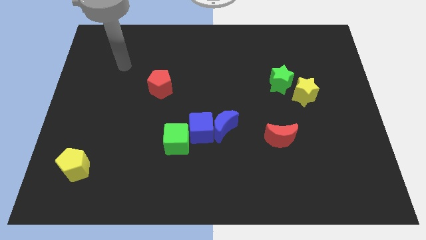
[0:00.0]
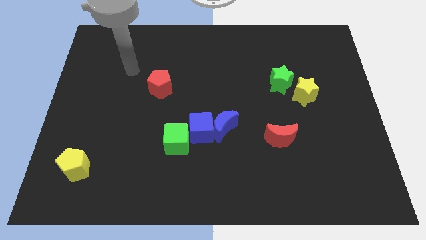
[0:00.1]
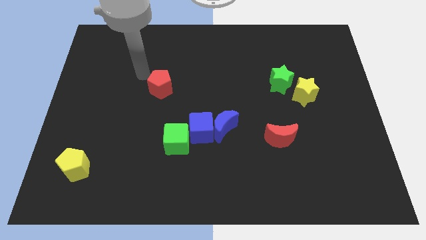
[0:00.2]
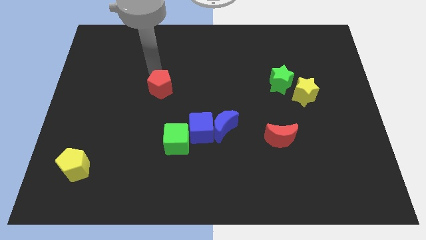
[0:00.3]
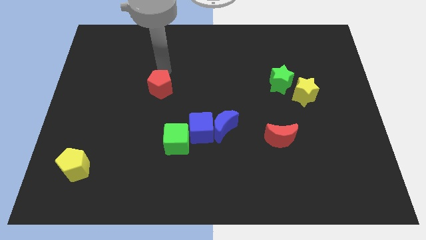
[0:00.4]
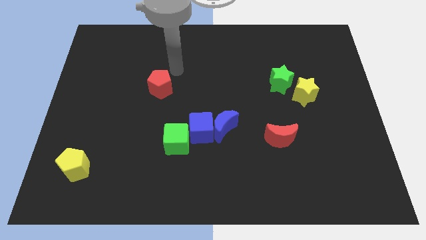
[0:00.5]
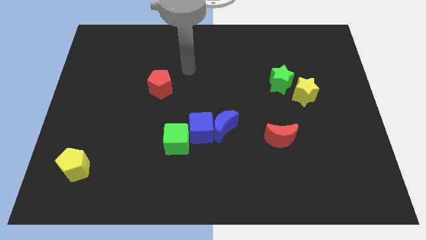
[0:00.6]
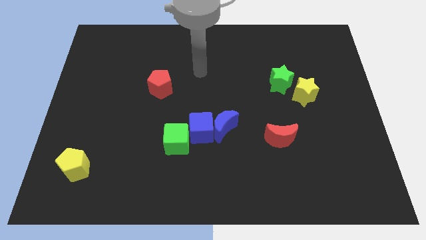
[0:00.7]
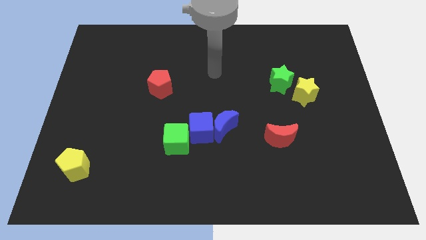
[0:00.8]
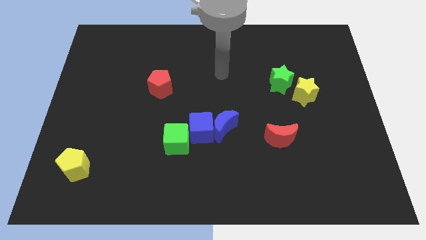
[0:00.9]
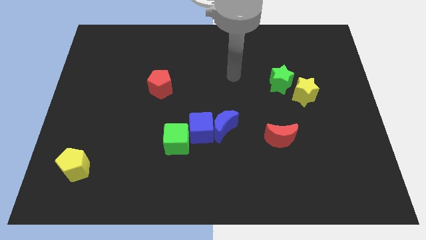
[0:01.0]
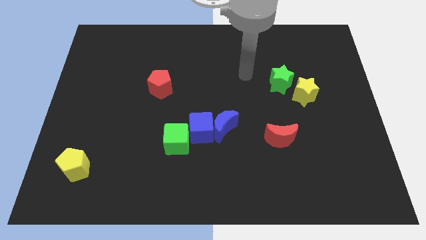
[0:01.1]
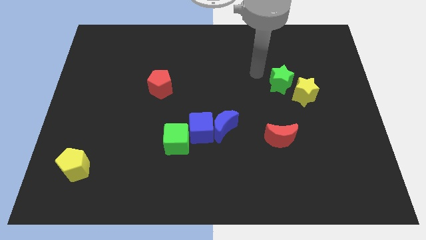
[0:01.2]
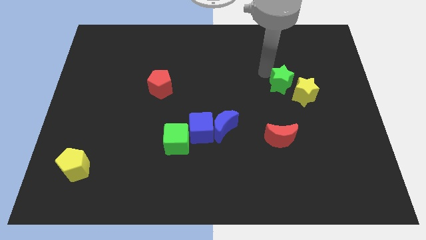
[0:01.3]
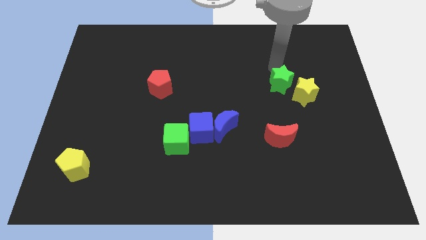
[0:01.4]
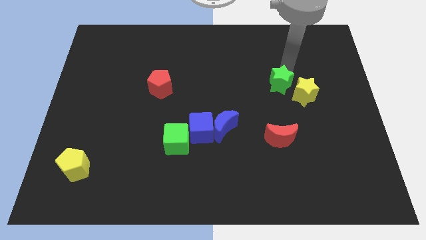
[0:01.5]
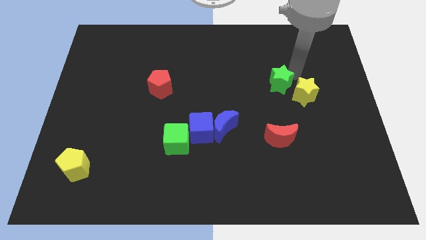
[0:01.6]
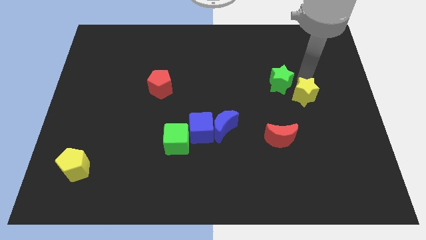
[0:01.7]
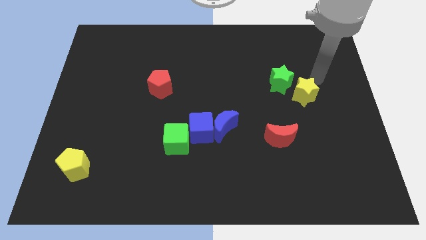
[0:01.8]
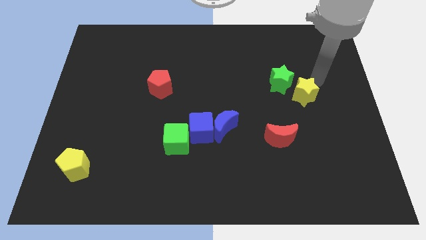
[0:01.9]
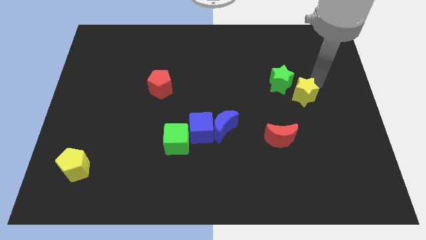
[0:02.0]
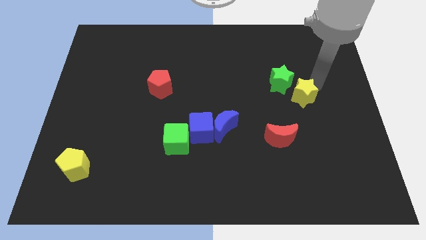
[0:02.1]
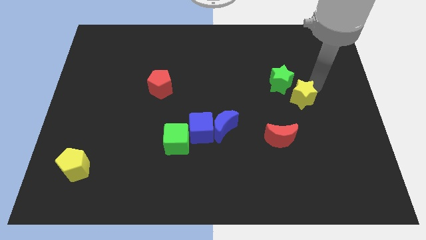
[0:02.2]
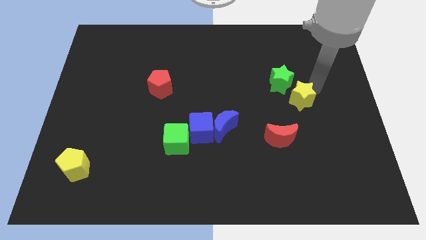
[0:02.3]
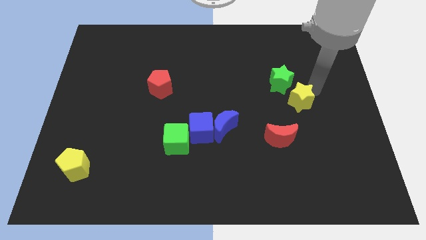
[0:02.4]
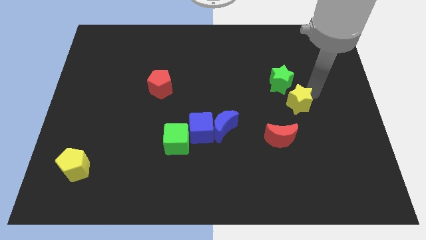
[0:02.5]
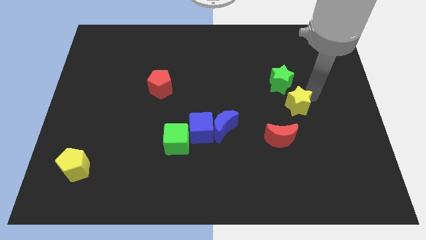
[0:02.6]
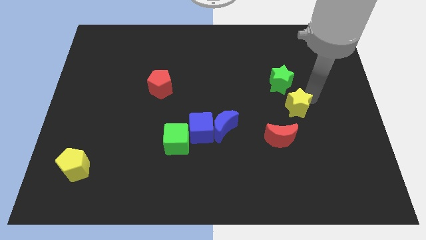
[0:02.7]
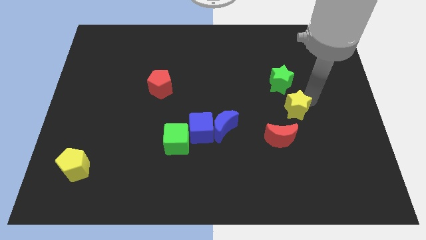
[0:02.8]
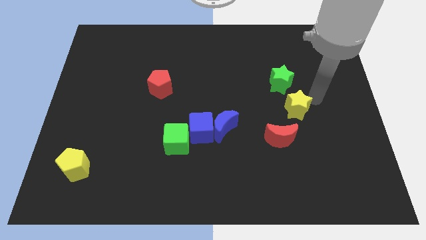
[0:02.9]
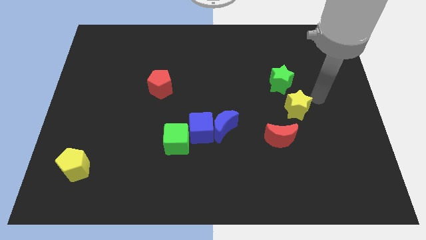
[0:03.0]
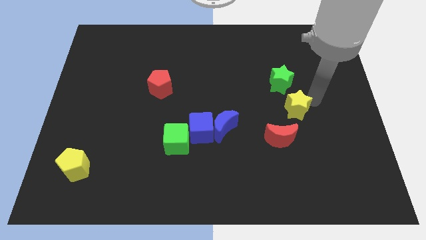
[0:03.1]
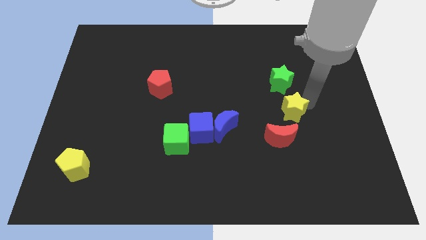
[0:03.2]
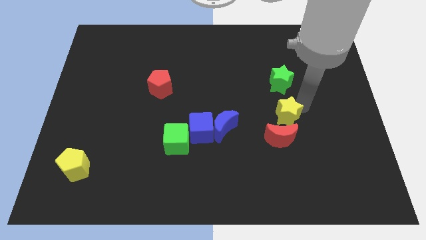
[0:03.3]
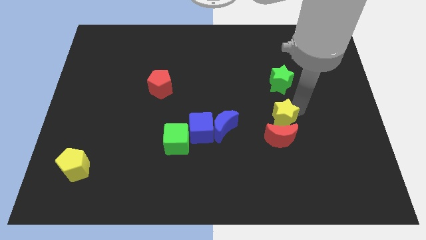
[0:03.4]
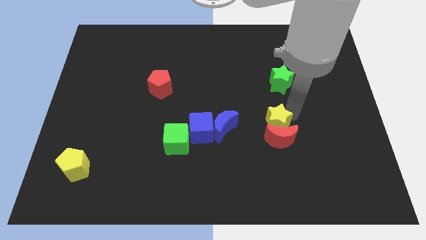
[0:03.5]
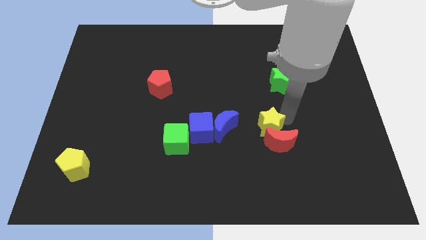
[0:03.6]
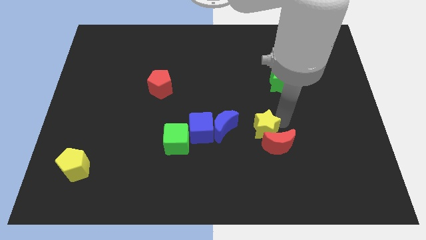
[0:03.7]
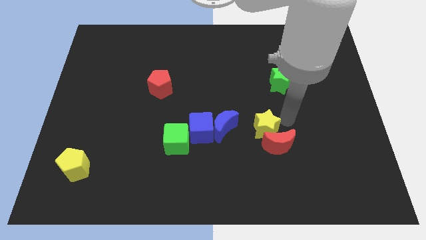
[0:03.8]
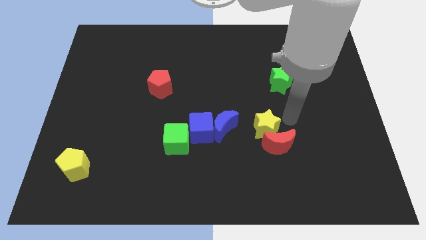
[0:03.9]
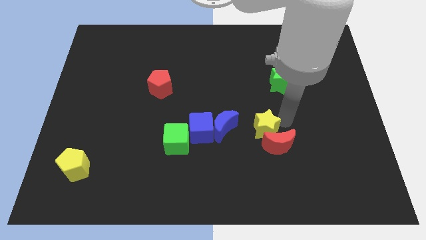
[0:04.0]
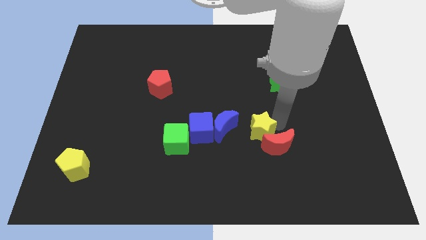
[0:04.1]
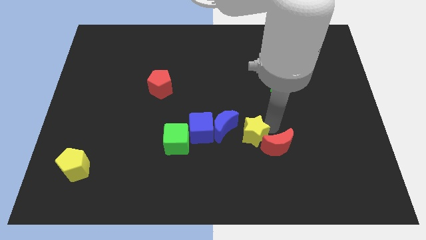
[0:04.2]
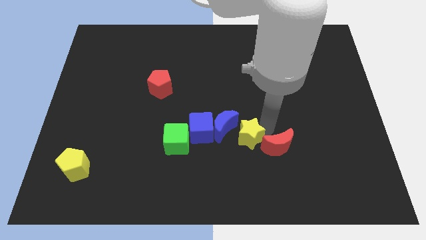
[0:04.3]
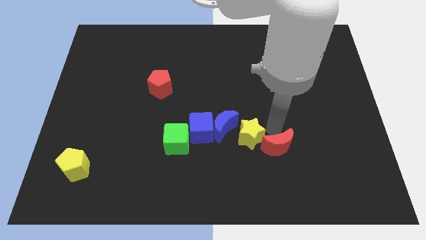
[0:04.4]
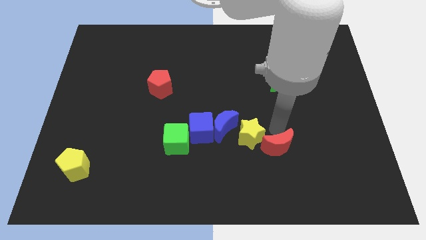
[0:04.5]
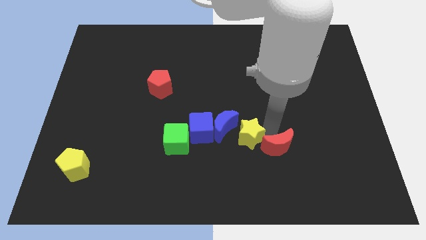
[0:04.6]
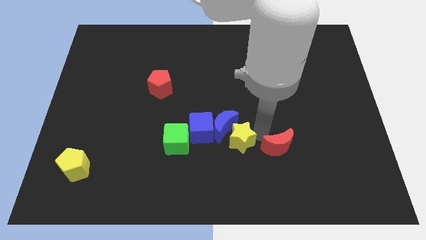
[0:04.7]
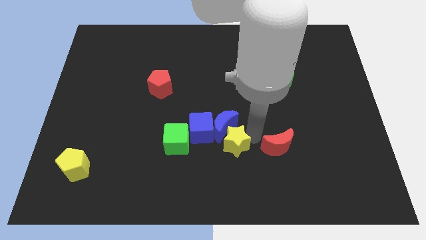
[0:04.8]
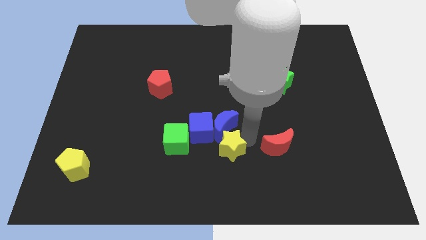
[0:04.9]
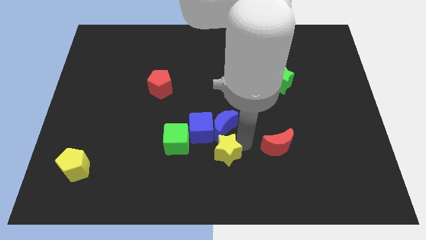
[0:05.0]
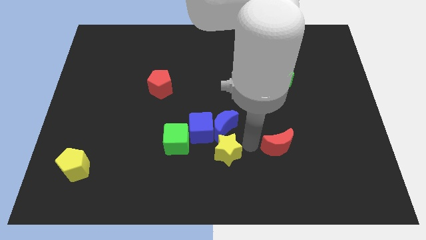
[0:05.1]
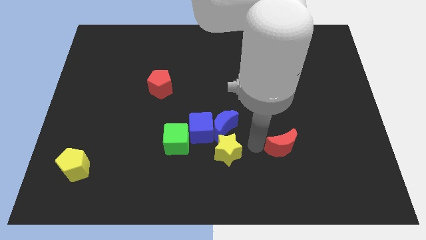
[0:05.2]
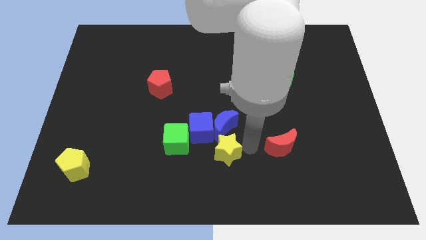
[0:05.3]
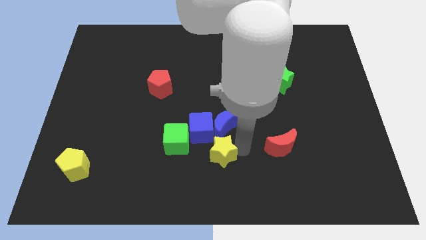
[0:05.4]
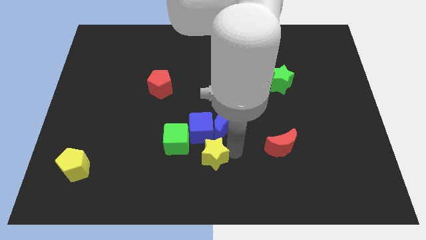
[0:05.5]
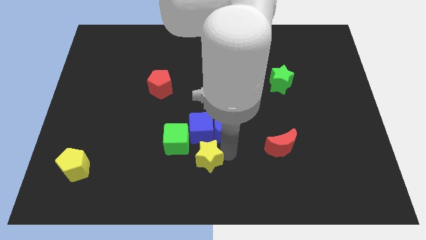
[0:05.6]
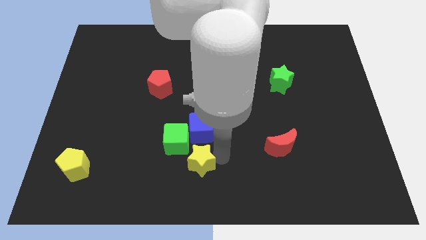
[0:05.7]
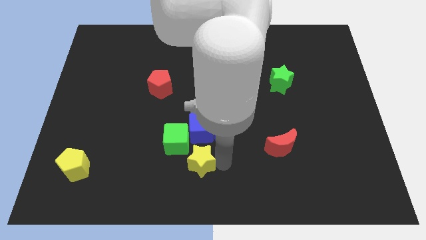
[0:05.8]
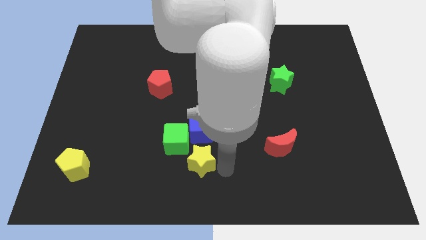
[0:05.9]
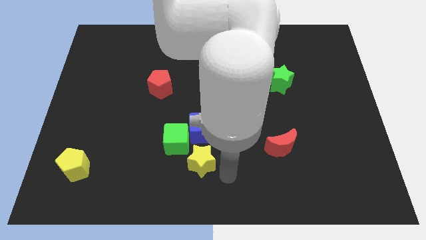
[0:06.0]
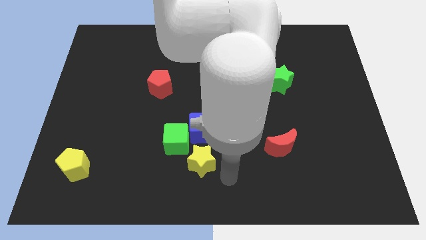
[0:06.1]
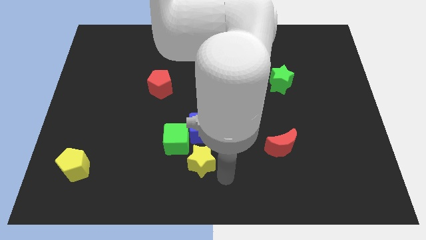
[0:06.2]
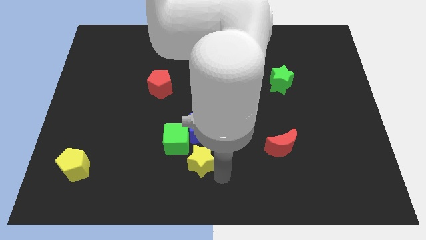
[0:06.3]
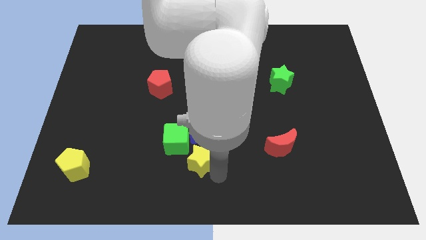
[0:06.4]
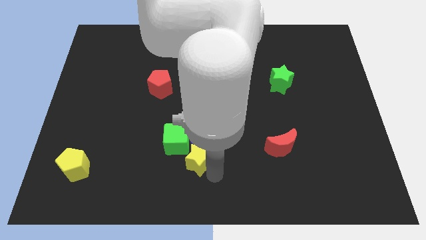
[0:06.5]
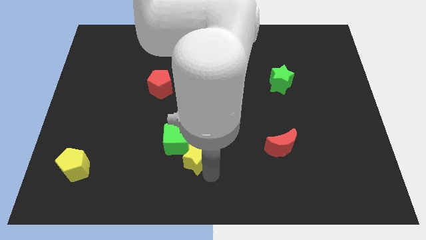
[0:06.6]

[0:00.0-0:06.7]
slide the yellow star diagonally down and to the left of the blue cube
